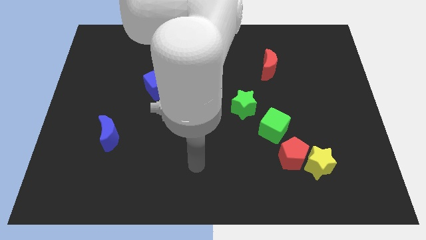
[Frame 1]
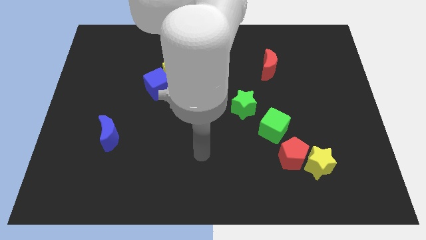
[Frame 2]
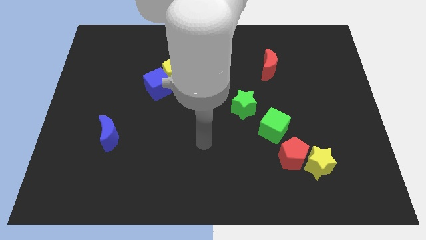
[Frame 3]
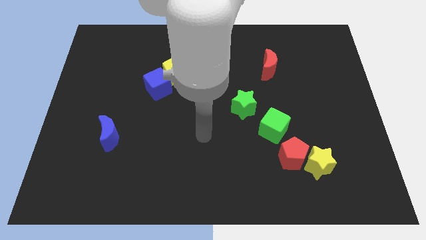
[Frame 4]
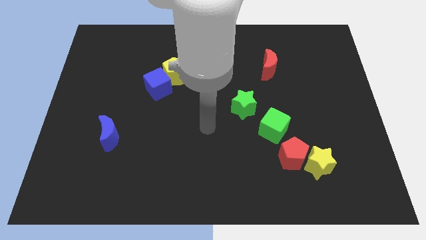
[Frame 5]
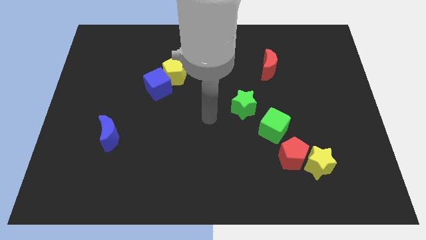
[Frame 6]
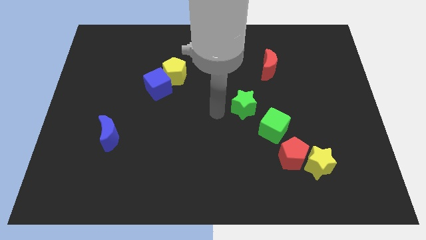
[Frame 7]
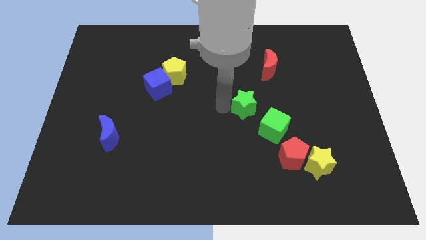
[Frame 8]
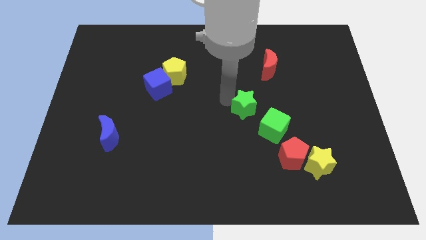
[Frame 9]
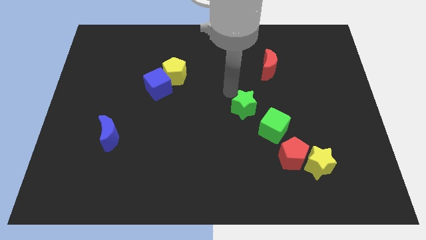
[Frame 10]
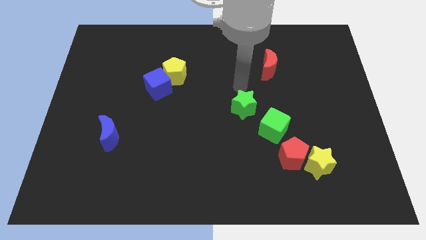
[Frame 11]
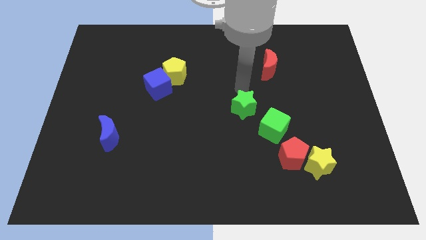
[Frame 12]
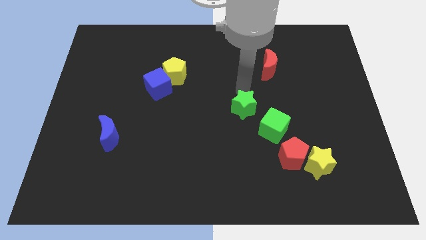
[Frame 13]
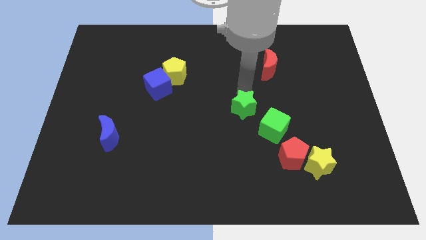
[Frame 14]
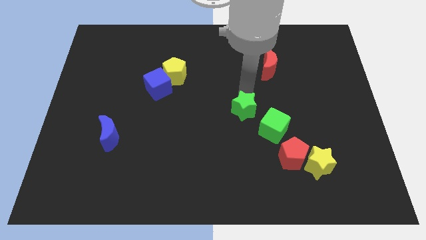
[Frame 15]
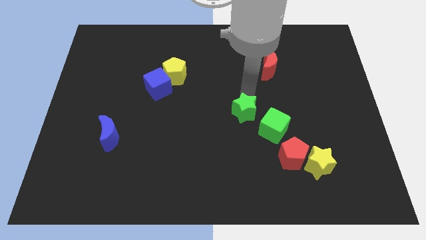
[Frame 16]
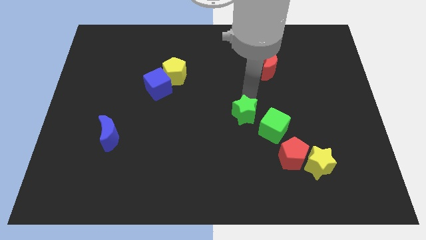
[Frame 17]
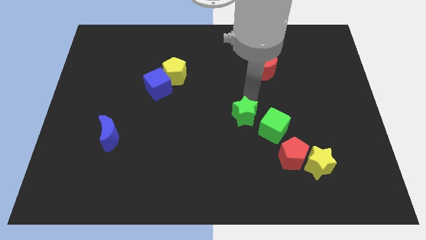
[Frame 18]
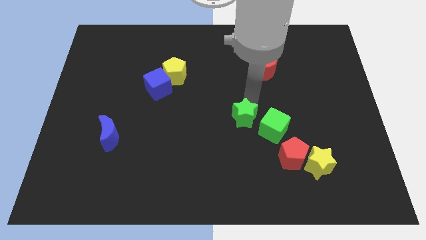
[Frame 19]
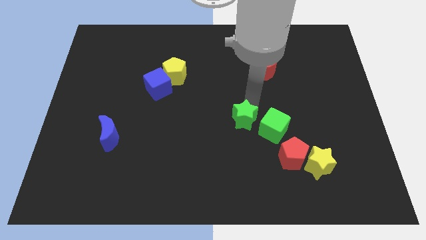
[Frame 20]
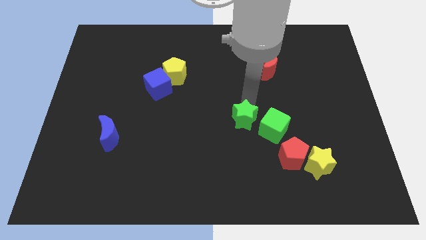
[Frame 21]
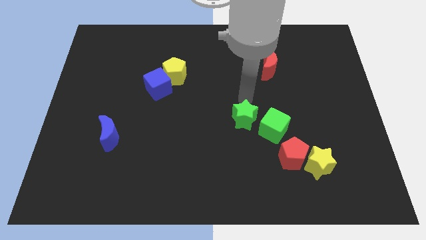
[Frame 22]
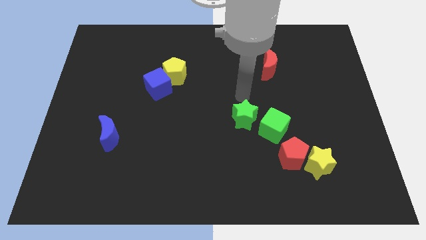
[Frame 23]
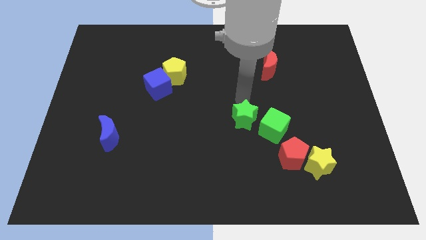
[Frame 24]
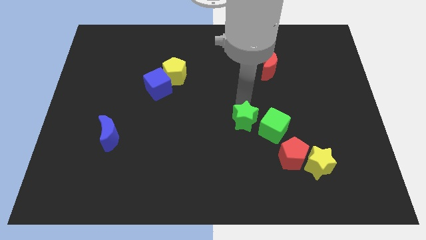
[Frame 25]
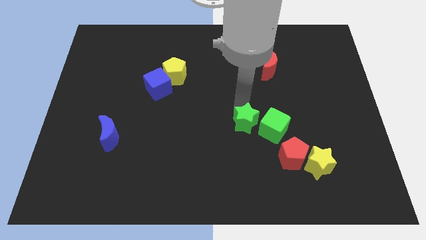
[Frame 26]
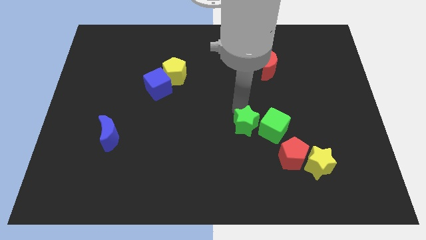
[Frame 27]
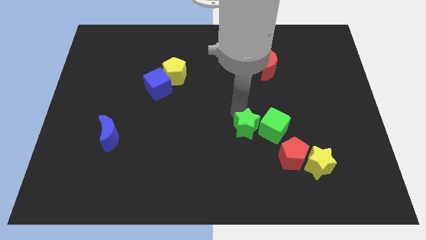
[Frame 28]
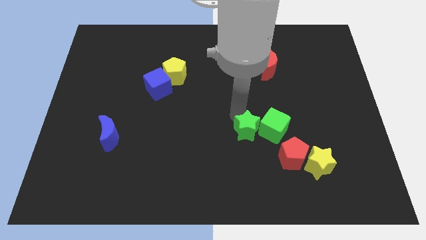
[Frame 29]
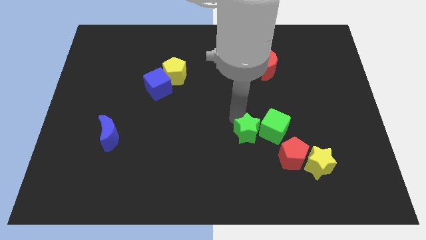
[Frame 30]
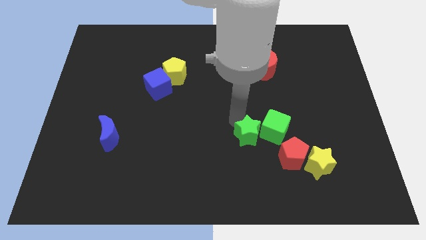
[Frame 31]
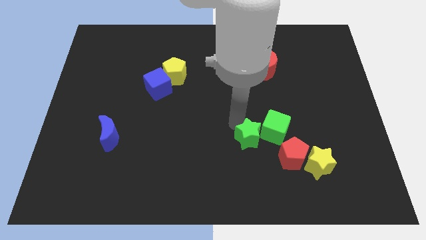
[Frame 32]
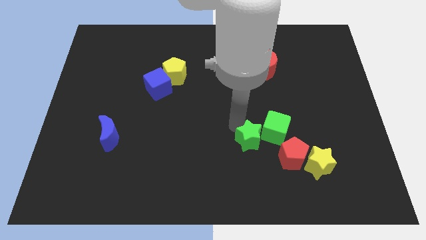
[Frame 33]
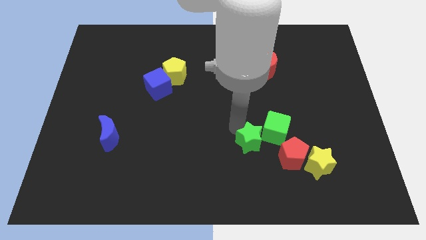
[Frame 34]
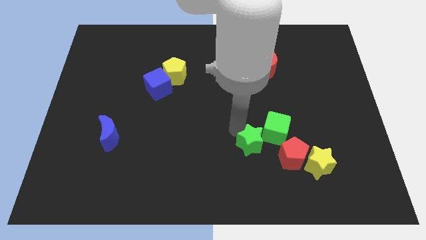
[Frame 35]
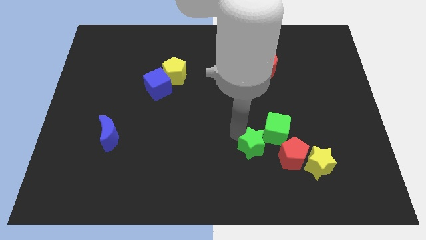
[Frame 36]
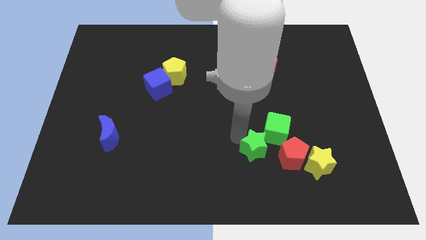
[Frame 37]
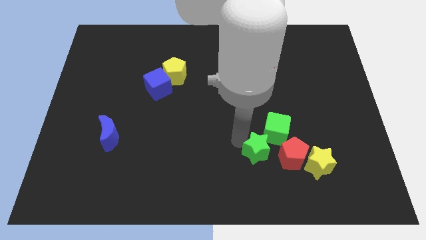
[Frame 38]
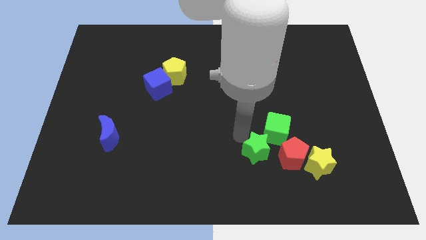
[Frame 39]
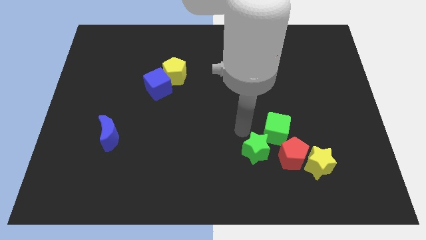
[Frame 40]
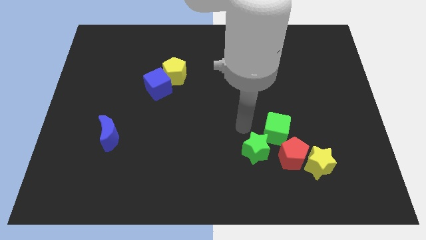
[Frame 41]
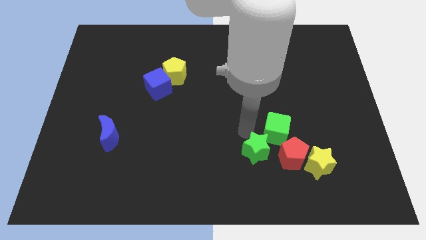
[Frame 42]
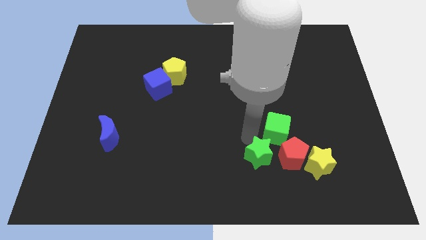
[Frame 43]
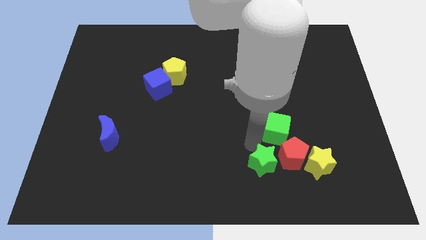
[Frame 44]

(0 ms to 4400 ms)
move the green star to the bottom left of the red pentagon

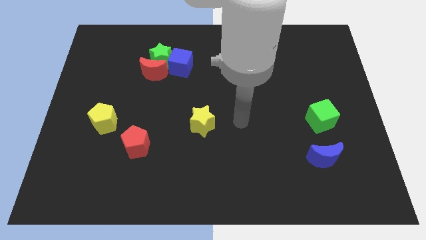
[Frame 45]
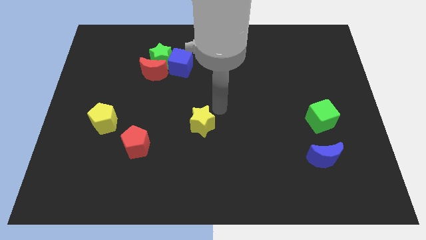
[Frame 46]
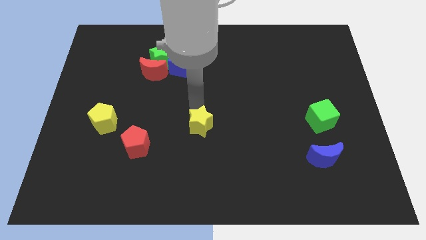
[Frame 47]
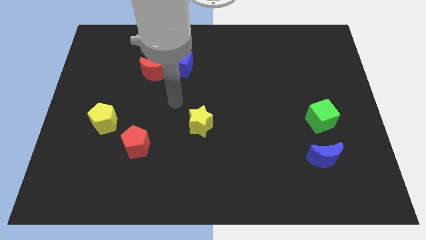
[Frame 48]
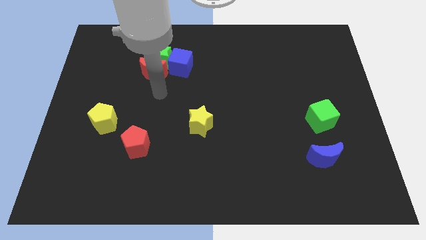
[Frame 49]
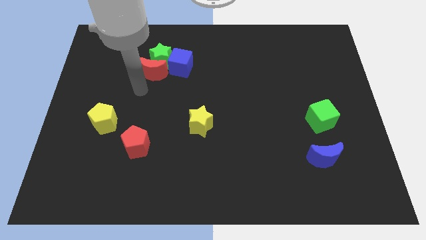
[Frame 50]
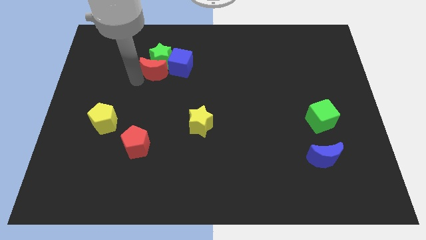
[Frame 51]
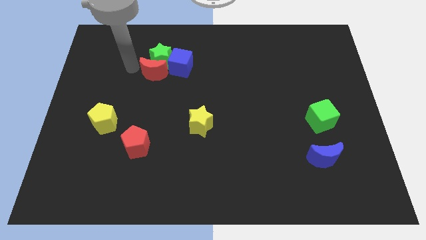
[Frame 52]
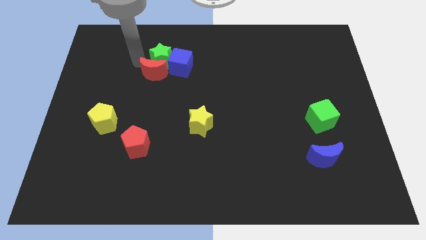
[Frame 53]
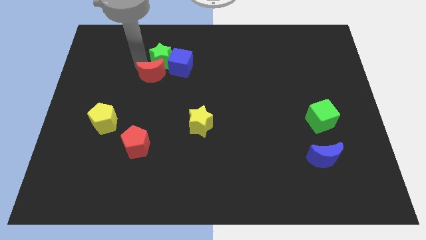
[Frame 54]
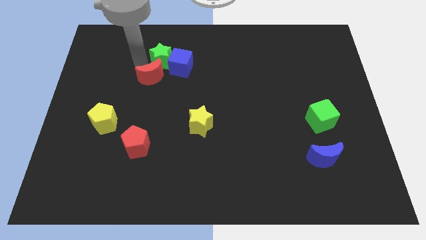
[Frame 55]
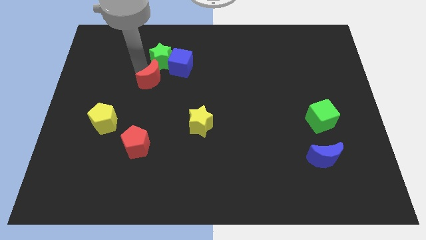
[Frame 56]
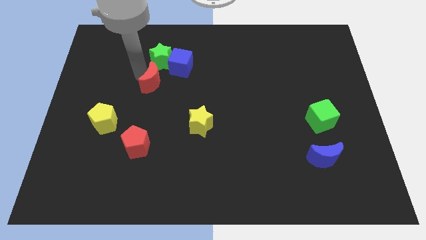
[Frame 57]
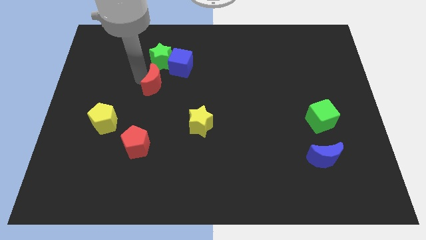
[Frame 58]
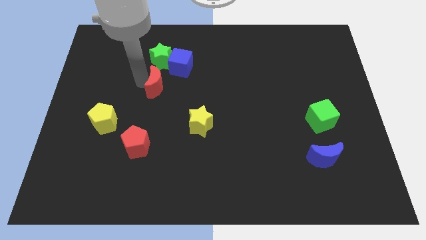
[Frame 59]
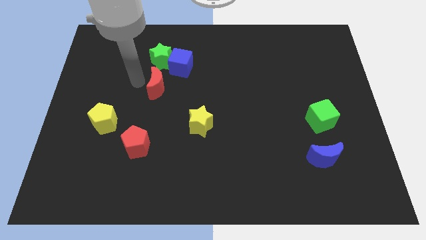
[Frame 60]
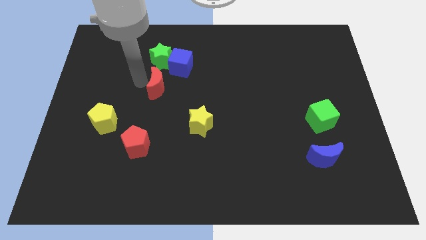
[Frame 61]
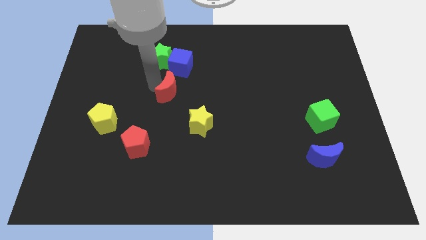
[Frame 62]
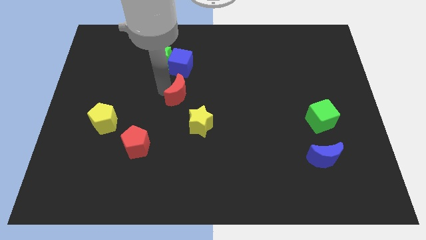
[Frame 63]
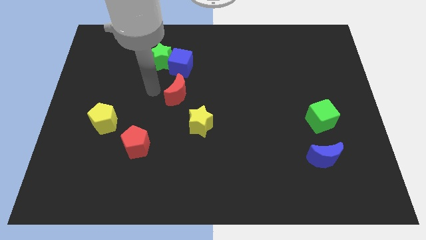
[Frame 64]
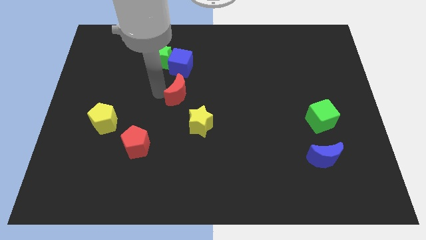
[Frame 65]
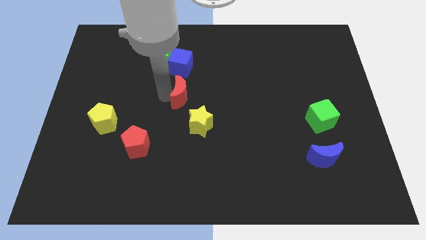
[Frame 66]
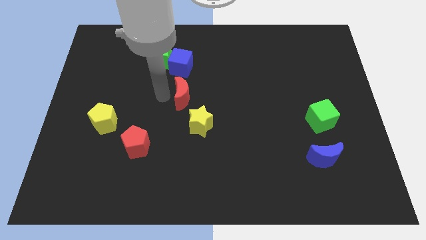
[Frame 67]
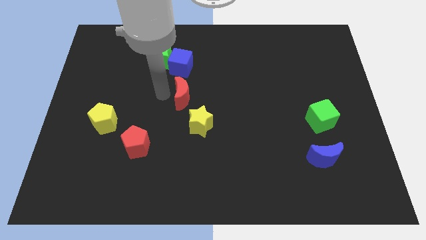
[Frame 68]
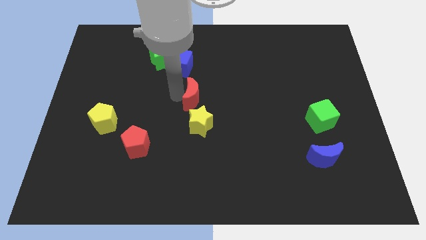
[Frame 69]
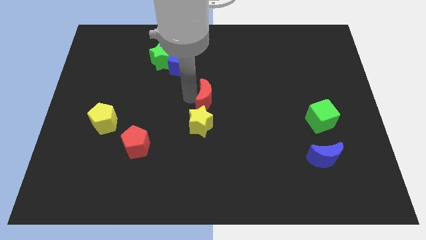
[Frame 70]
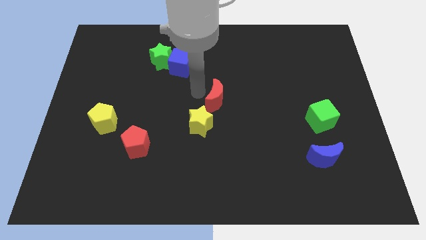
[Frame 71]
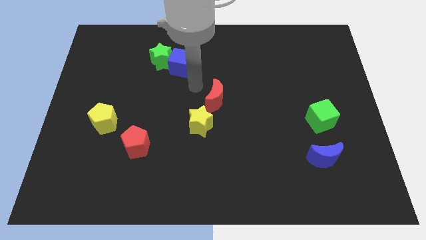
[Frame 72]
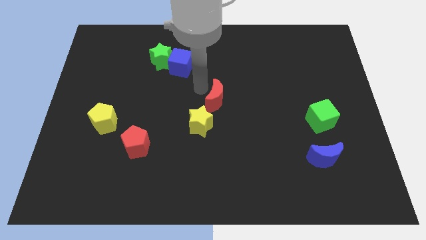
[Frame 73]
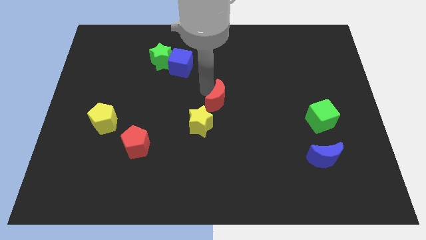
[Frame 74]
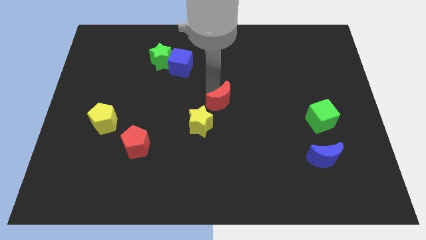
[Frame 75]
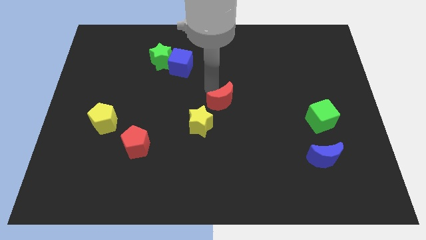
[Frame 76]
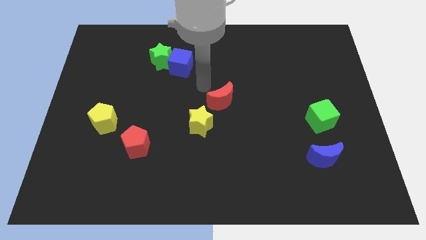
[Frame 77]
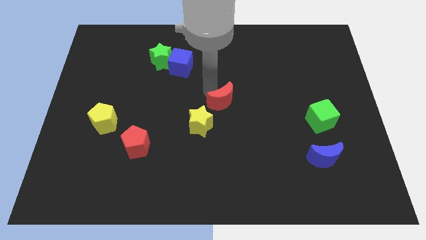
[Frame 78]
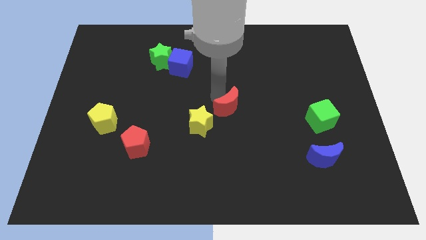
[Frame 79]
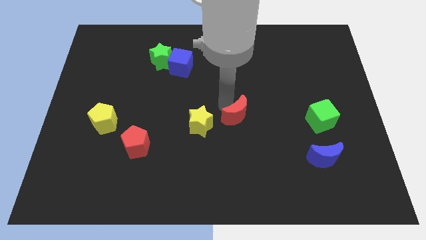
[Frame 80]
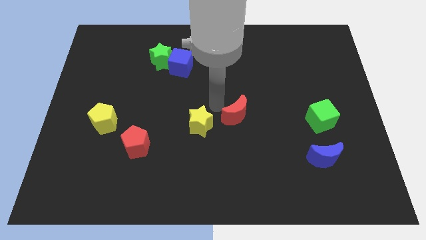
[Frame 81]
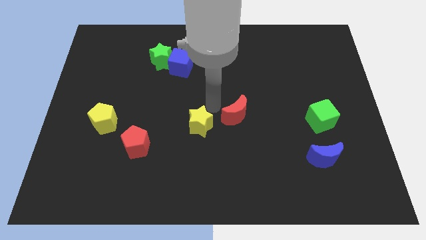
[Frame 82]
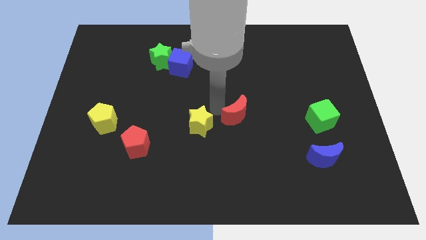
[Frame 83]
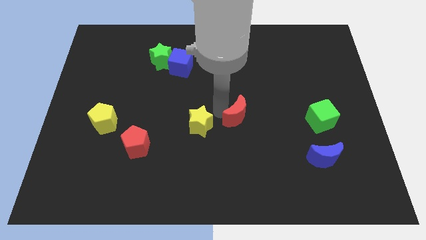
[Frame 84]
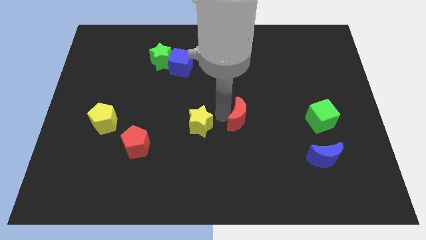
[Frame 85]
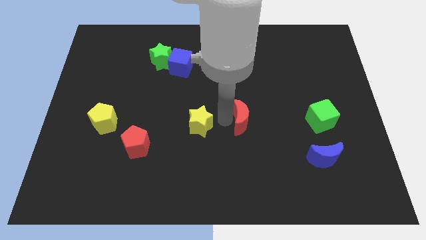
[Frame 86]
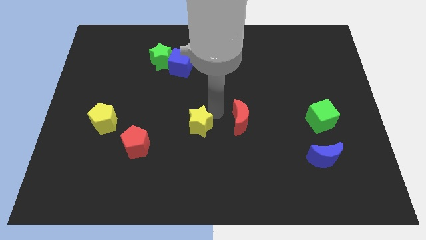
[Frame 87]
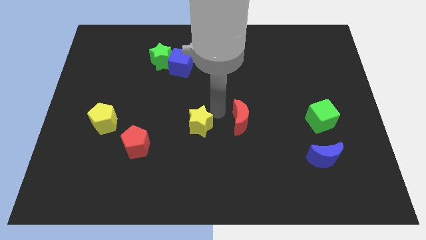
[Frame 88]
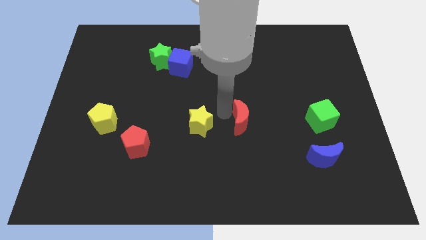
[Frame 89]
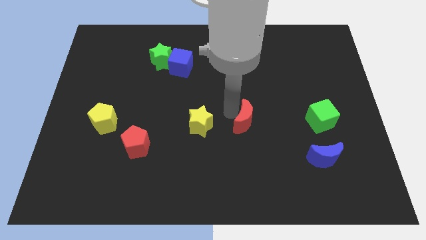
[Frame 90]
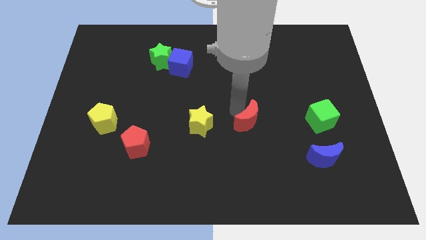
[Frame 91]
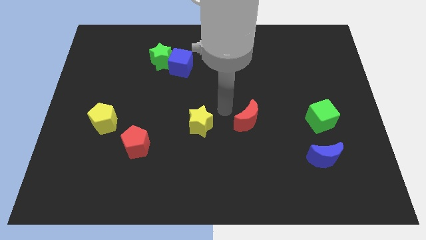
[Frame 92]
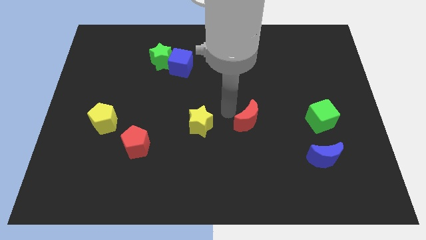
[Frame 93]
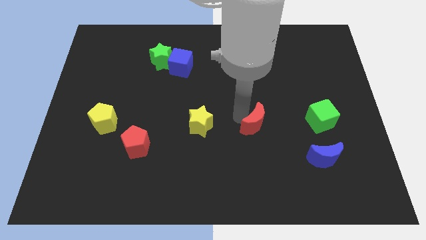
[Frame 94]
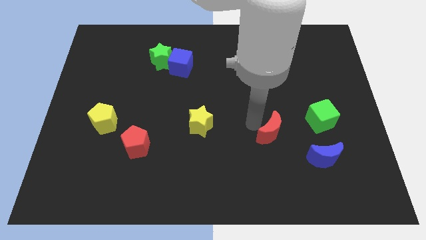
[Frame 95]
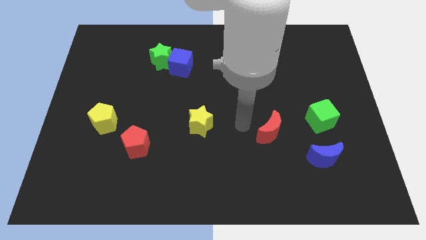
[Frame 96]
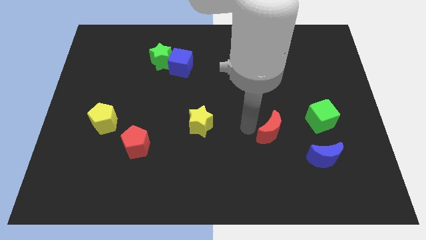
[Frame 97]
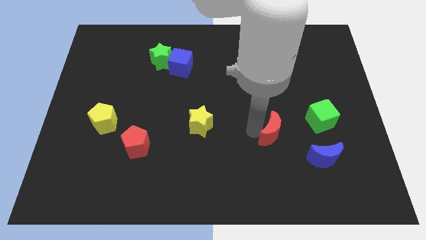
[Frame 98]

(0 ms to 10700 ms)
put the red moon to the top left of the blue moon
